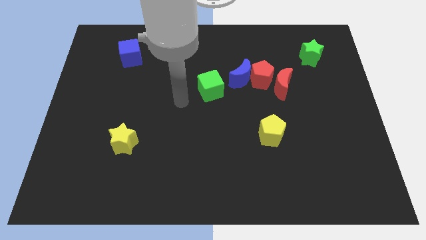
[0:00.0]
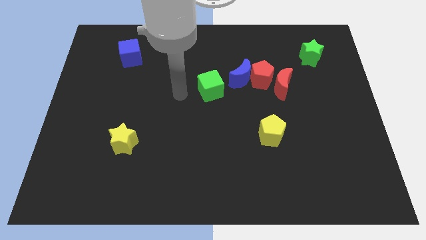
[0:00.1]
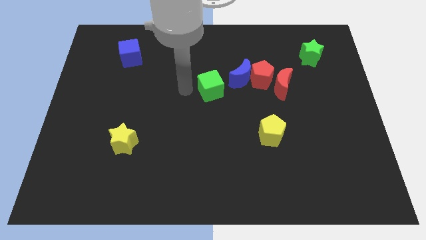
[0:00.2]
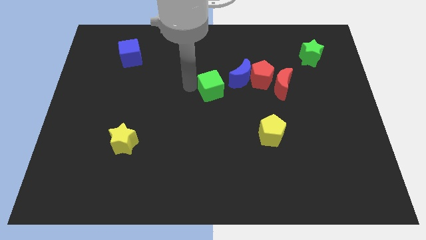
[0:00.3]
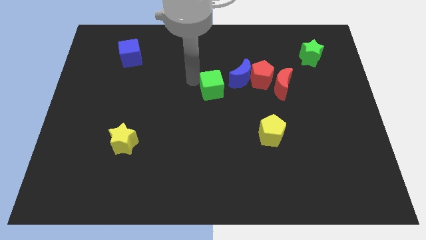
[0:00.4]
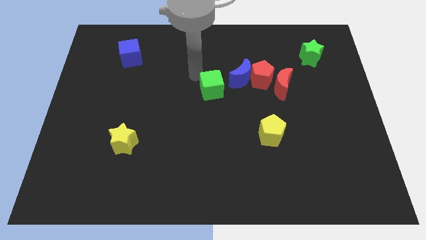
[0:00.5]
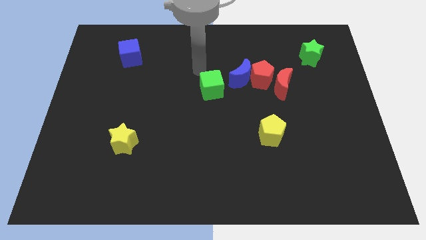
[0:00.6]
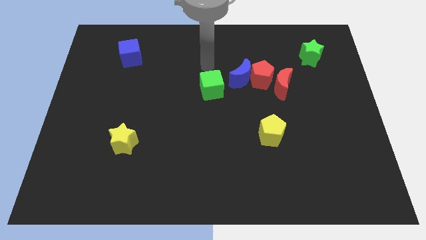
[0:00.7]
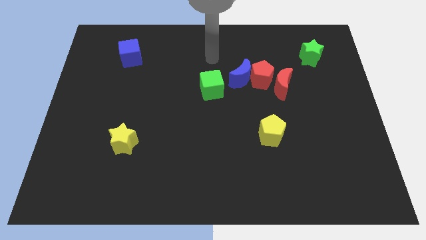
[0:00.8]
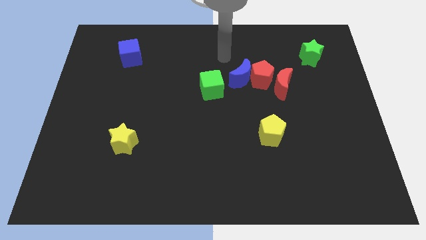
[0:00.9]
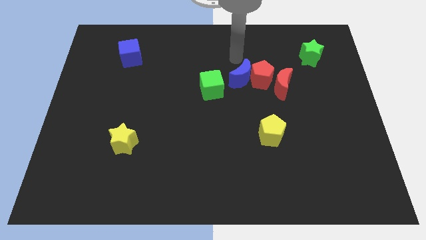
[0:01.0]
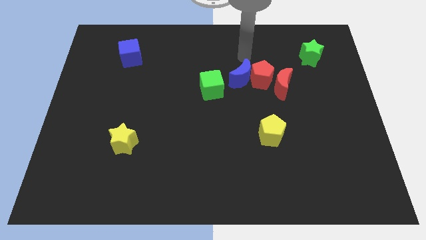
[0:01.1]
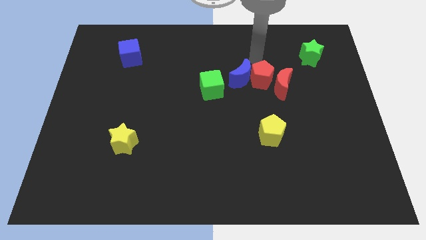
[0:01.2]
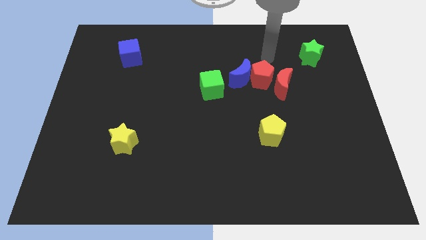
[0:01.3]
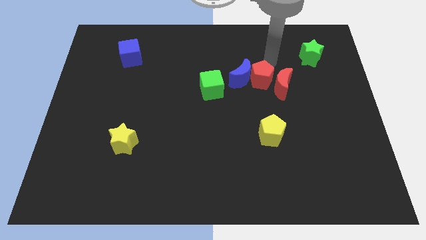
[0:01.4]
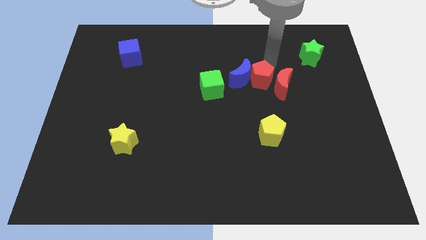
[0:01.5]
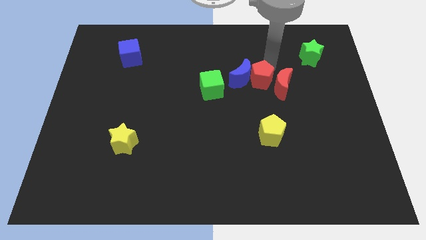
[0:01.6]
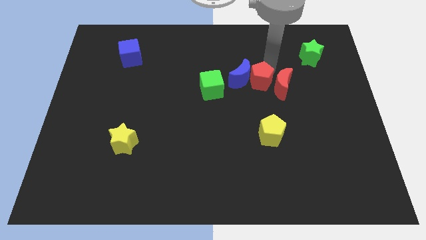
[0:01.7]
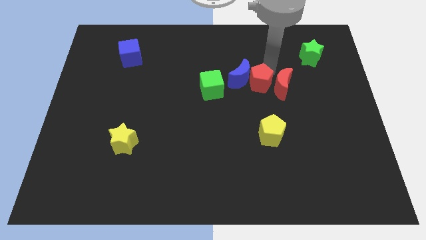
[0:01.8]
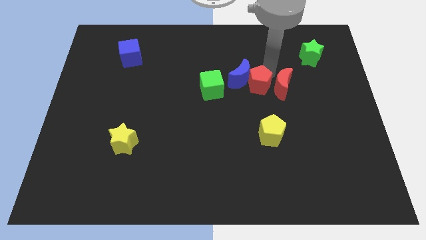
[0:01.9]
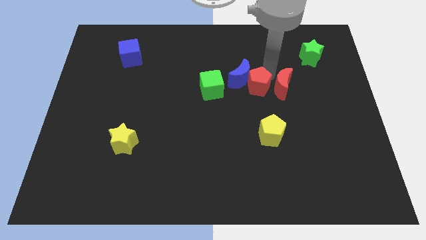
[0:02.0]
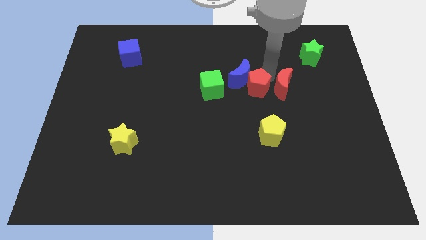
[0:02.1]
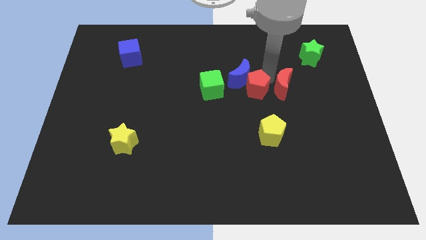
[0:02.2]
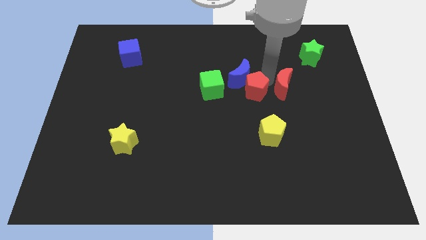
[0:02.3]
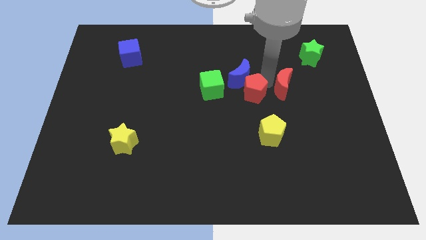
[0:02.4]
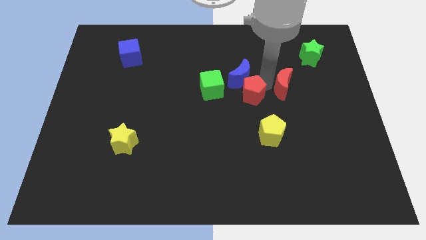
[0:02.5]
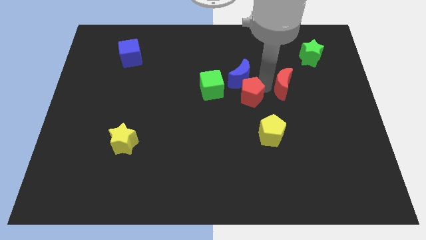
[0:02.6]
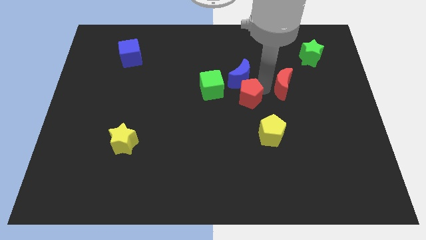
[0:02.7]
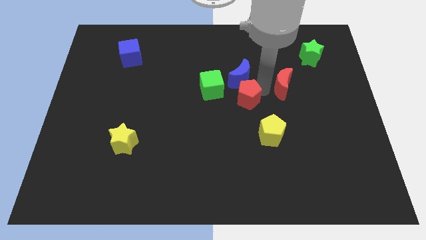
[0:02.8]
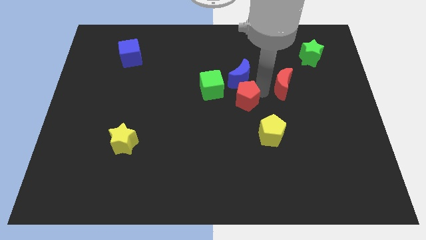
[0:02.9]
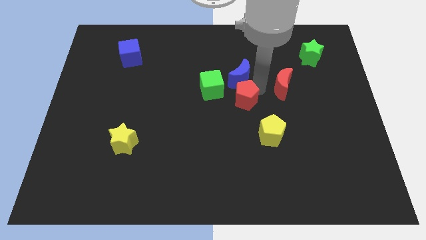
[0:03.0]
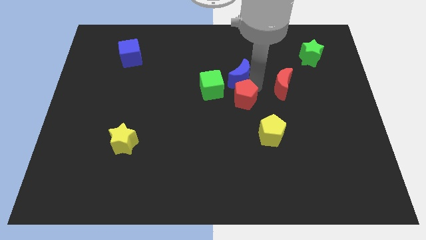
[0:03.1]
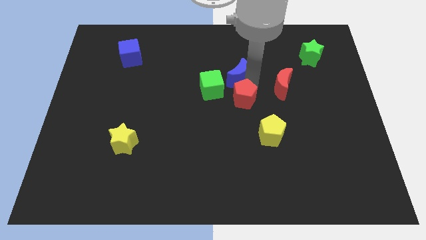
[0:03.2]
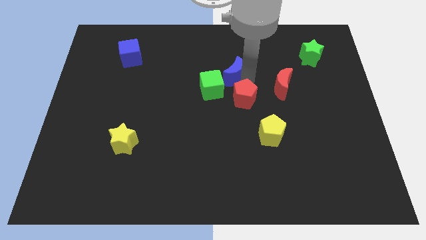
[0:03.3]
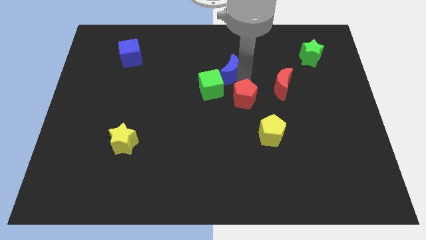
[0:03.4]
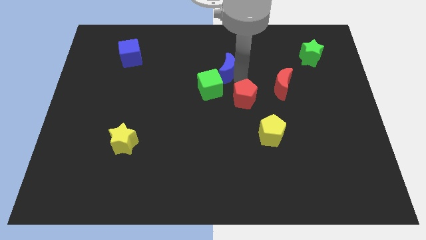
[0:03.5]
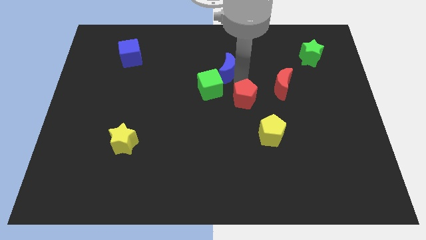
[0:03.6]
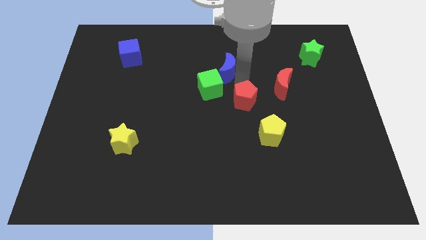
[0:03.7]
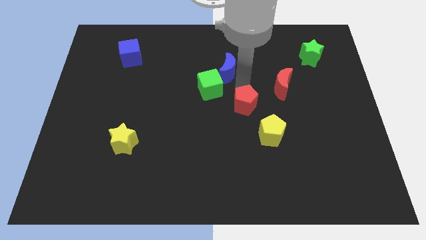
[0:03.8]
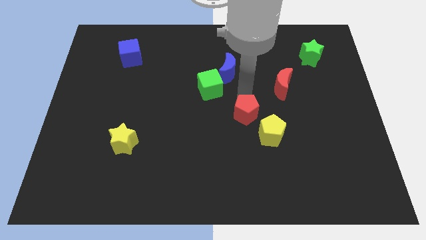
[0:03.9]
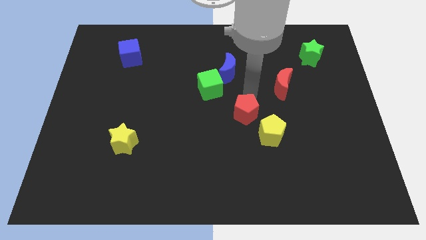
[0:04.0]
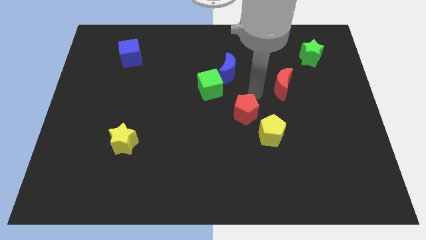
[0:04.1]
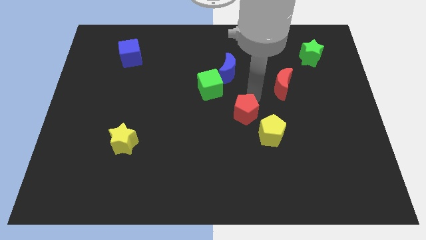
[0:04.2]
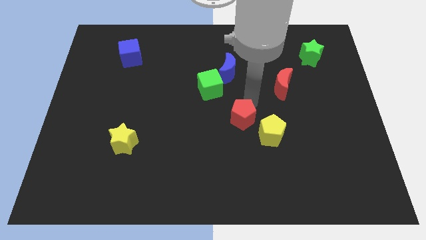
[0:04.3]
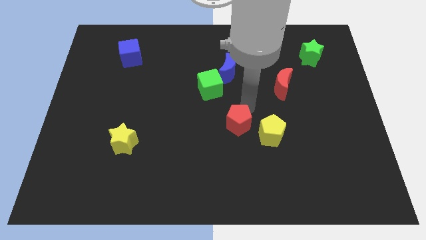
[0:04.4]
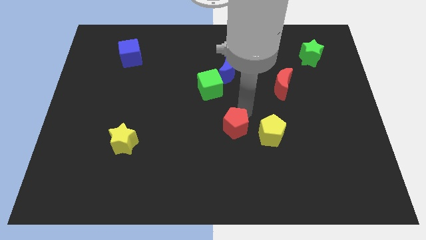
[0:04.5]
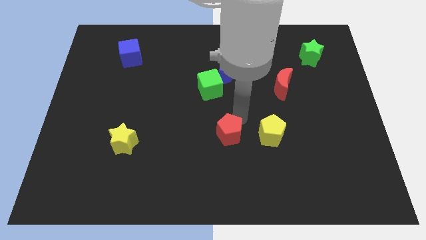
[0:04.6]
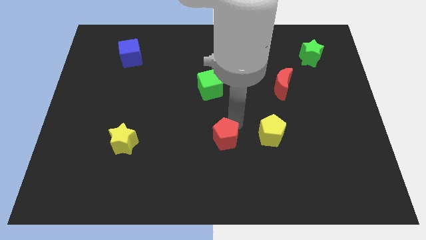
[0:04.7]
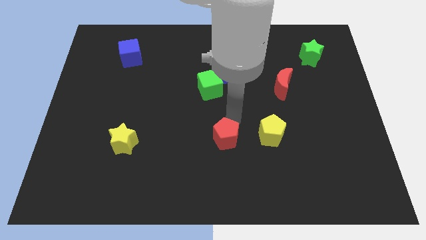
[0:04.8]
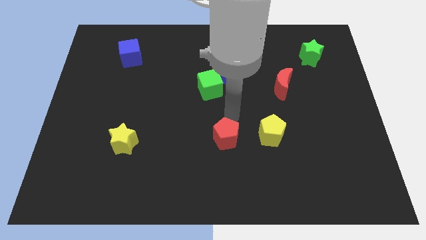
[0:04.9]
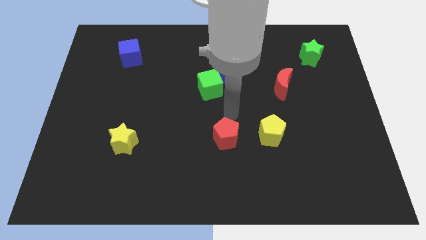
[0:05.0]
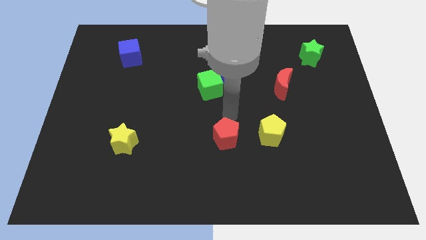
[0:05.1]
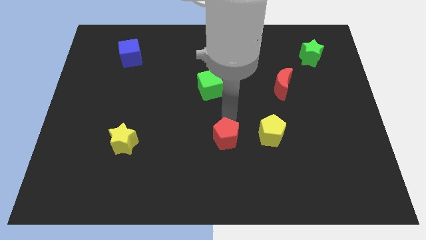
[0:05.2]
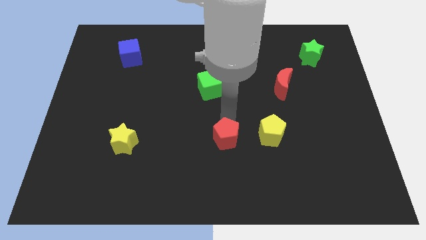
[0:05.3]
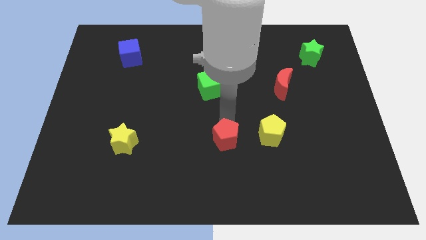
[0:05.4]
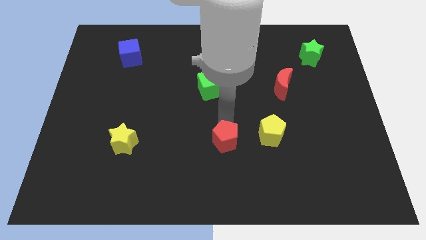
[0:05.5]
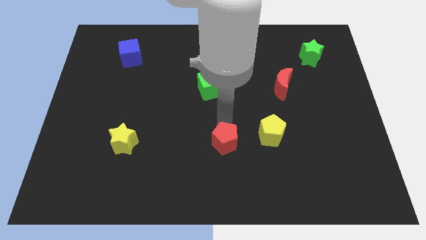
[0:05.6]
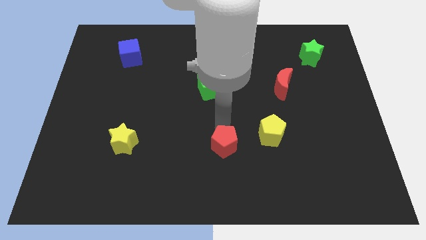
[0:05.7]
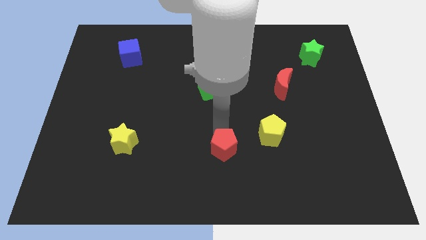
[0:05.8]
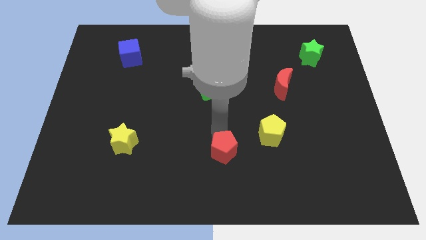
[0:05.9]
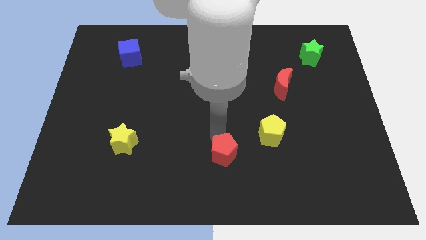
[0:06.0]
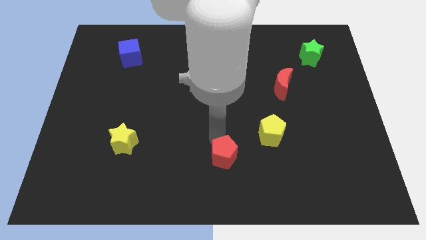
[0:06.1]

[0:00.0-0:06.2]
move the red pentagon to the bottom

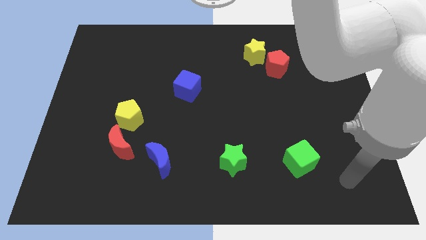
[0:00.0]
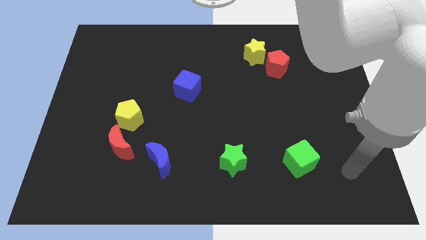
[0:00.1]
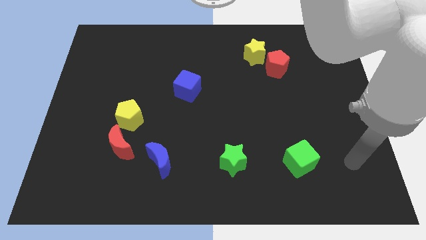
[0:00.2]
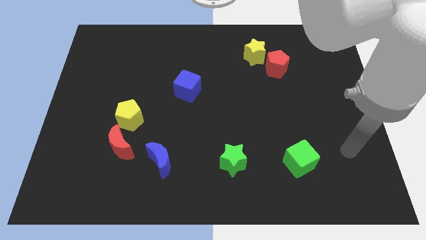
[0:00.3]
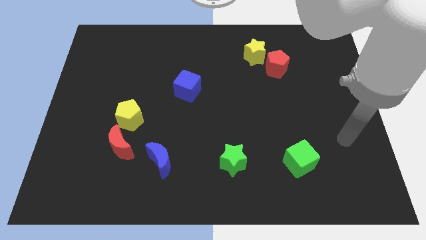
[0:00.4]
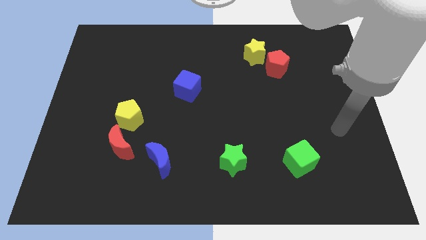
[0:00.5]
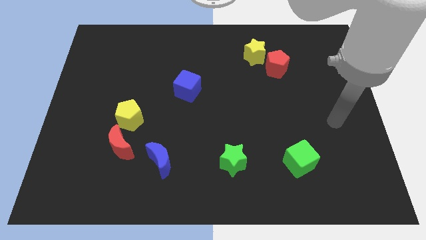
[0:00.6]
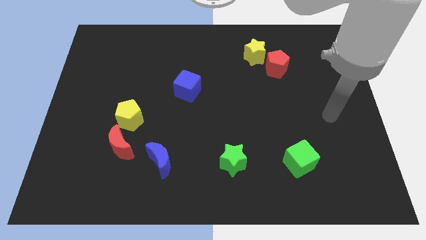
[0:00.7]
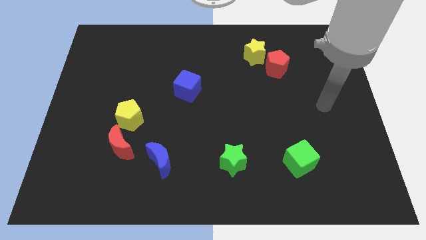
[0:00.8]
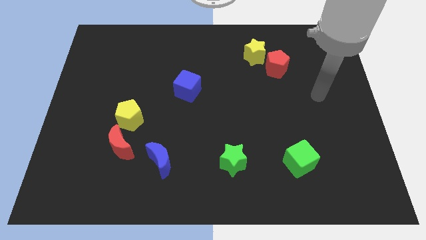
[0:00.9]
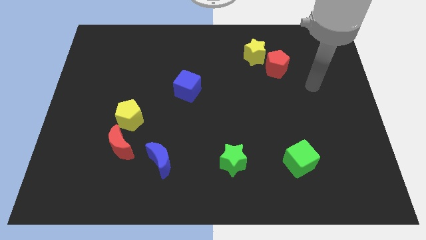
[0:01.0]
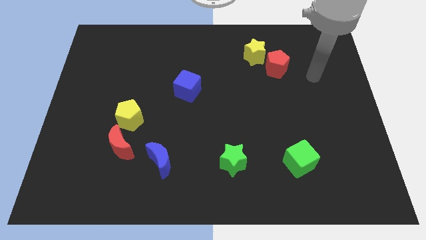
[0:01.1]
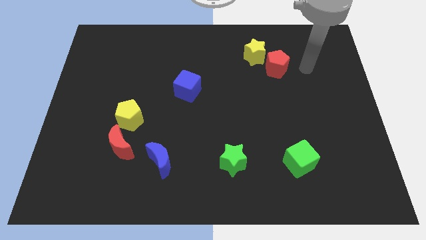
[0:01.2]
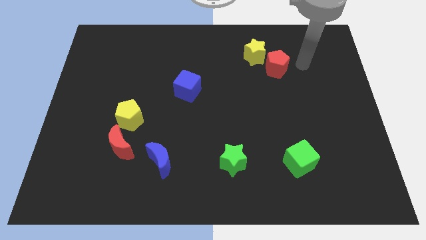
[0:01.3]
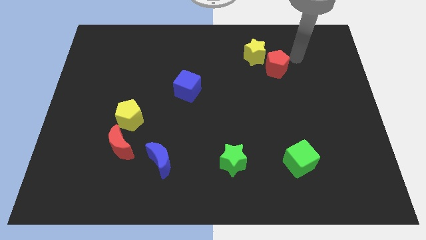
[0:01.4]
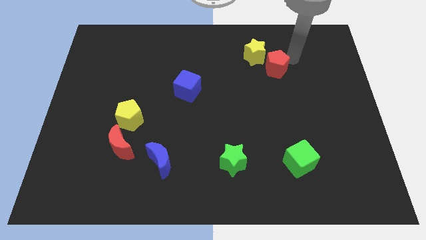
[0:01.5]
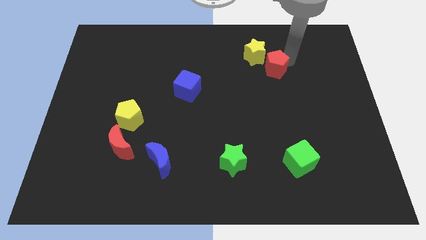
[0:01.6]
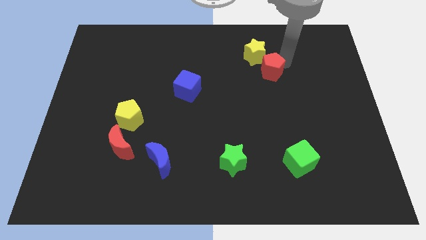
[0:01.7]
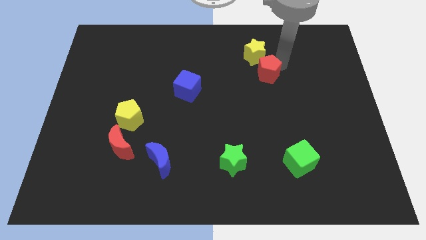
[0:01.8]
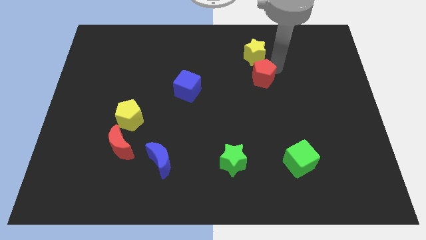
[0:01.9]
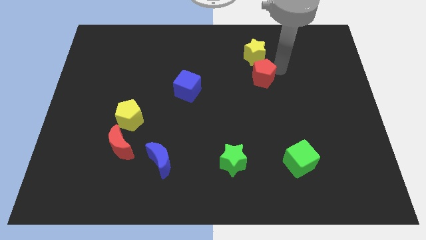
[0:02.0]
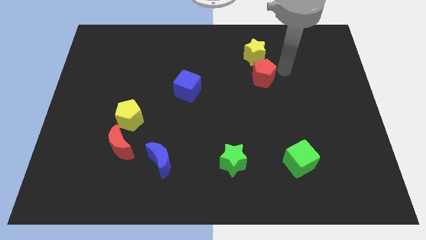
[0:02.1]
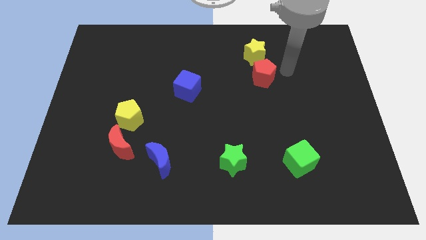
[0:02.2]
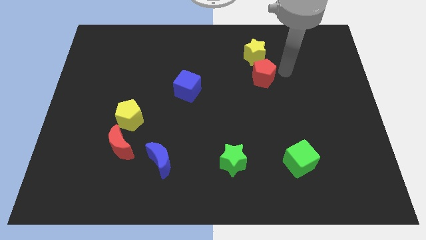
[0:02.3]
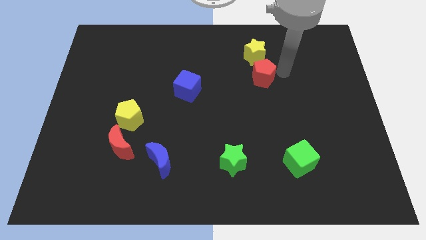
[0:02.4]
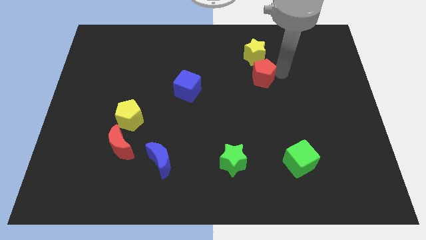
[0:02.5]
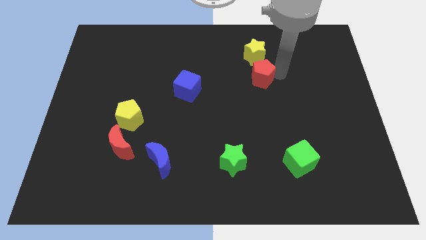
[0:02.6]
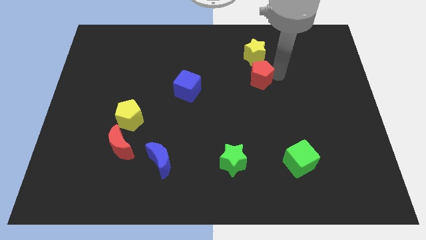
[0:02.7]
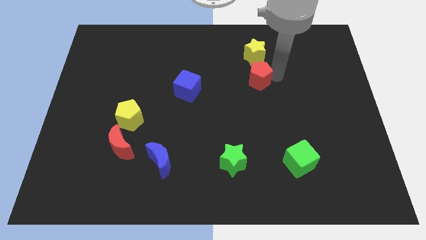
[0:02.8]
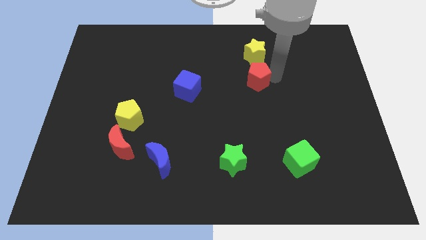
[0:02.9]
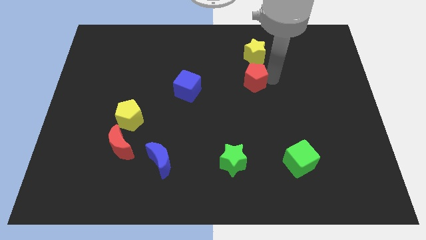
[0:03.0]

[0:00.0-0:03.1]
push the red pentagon to the middle of the board
